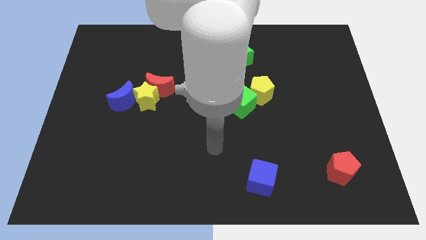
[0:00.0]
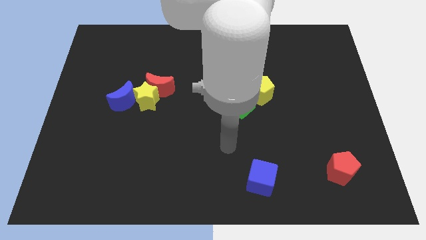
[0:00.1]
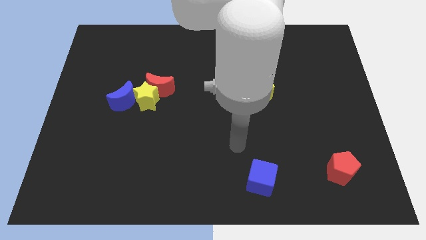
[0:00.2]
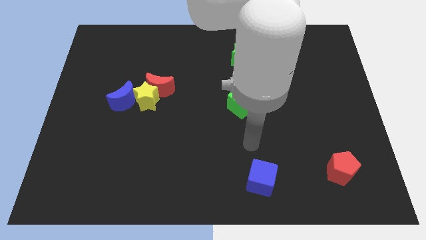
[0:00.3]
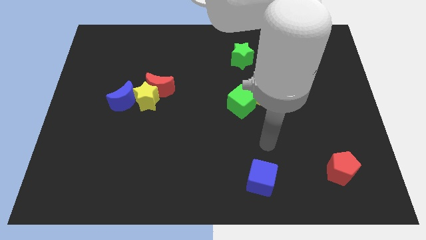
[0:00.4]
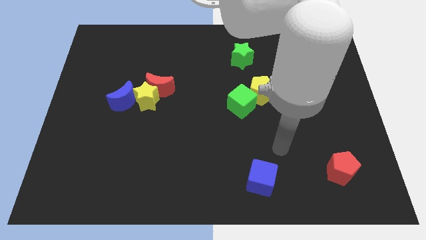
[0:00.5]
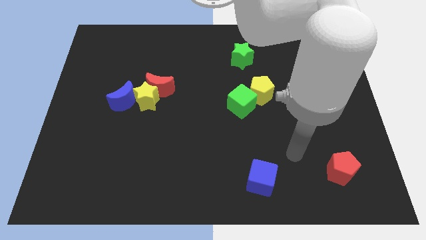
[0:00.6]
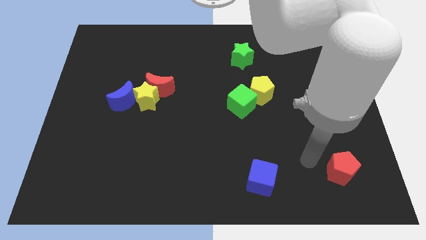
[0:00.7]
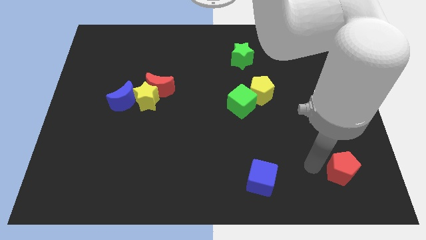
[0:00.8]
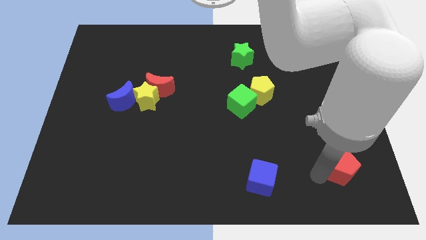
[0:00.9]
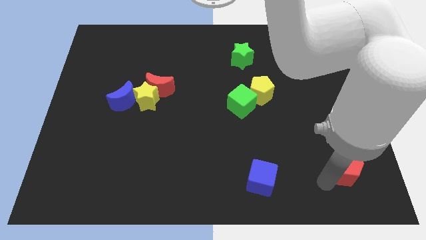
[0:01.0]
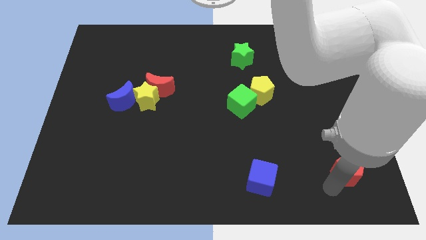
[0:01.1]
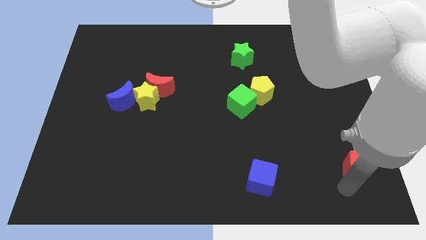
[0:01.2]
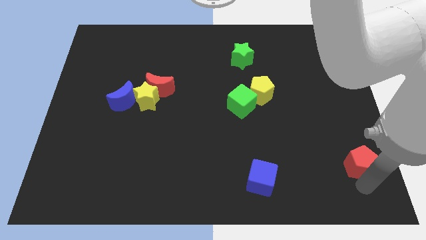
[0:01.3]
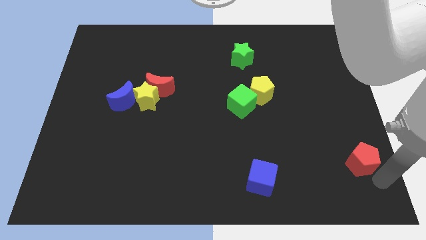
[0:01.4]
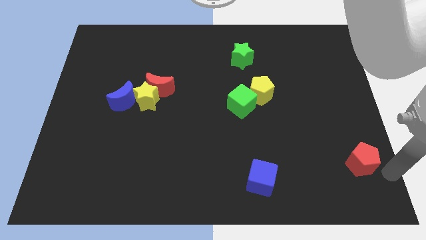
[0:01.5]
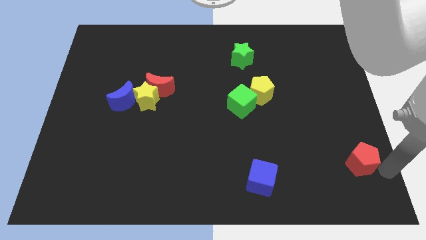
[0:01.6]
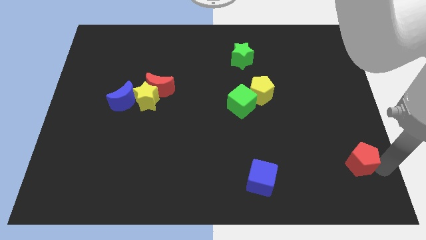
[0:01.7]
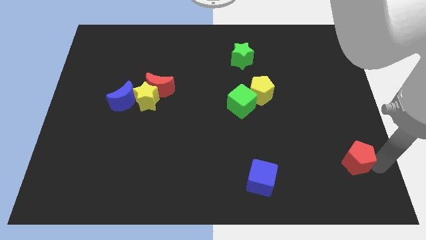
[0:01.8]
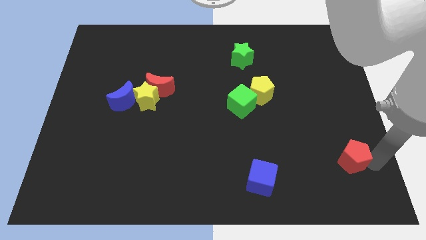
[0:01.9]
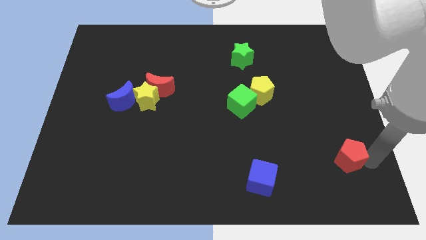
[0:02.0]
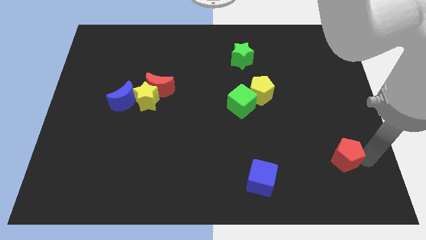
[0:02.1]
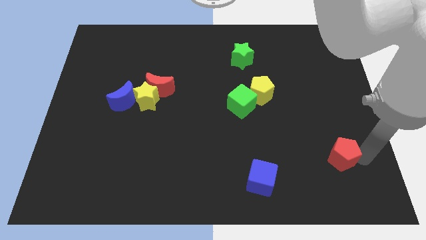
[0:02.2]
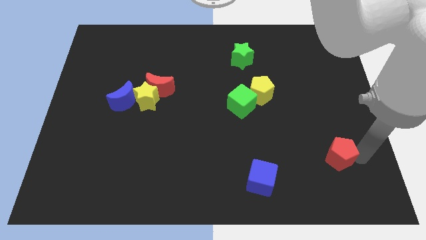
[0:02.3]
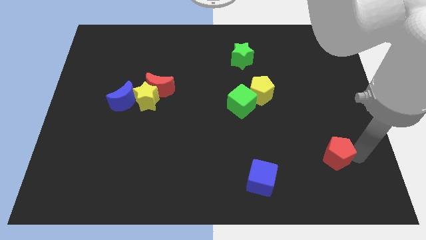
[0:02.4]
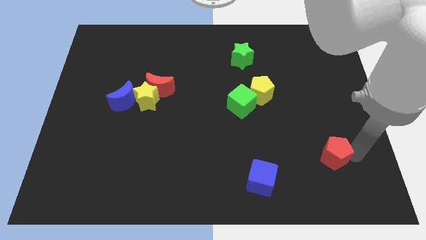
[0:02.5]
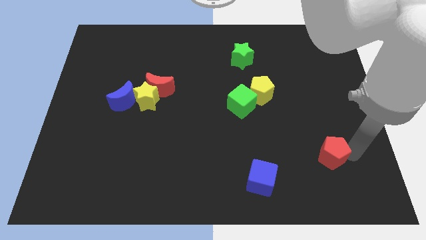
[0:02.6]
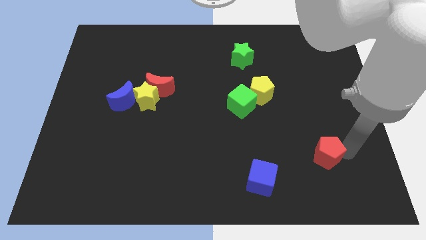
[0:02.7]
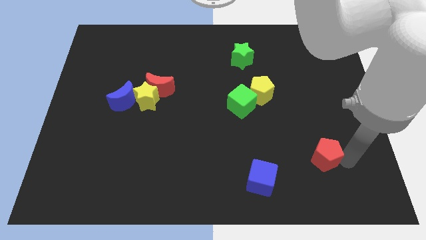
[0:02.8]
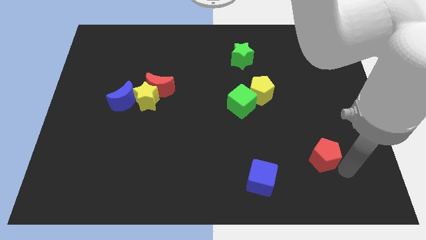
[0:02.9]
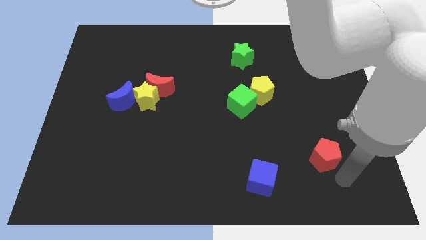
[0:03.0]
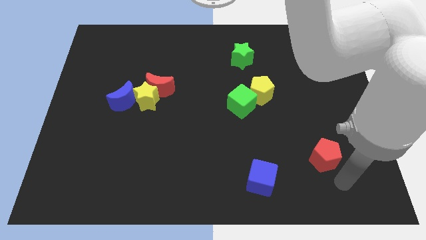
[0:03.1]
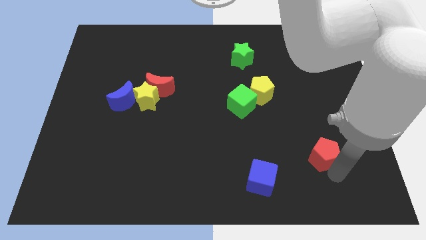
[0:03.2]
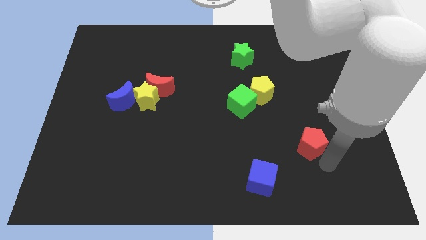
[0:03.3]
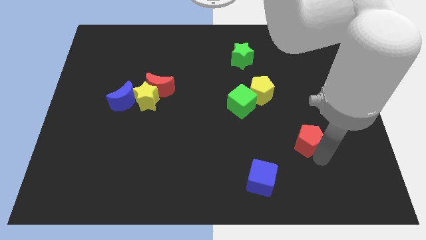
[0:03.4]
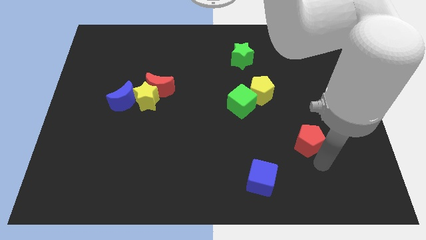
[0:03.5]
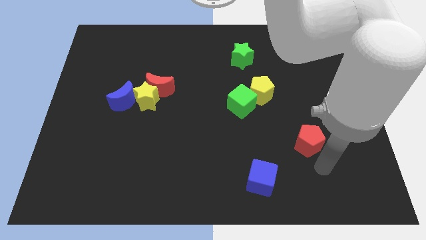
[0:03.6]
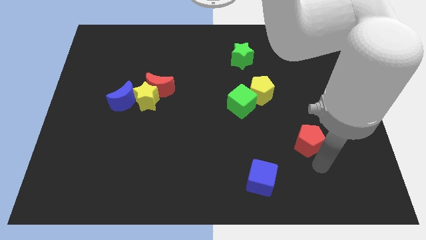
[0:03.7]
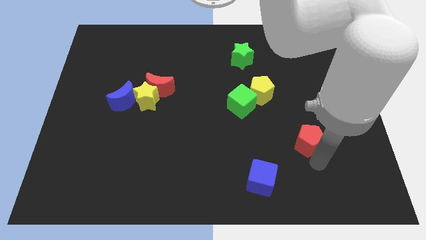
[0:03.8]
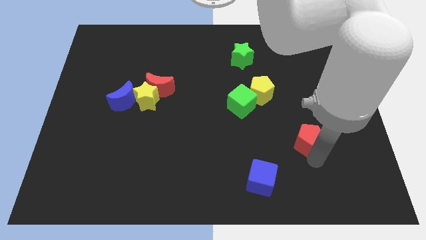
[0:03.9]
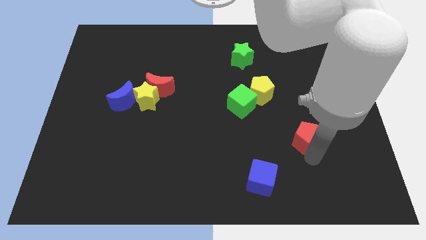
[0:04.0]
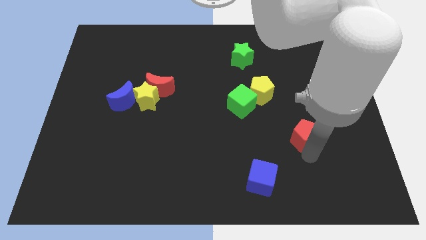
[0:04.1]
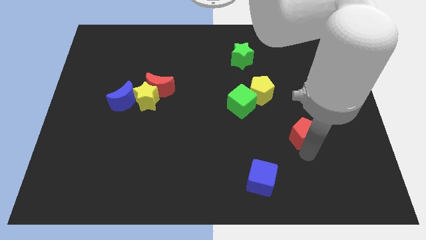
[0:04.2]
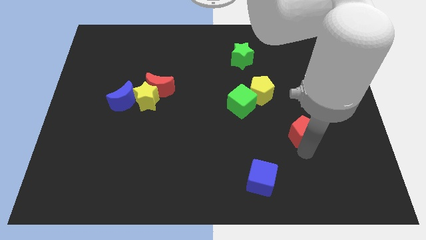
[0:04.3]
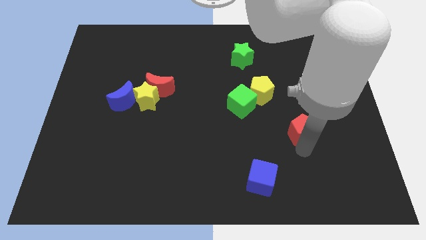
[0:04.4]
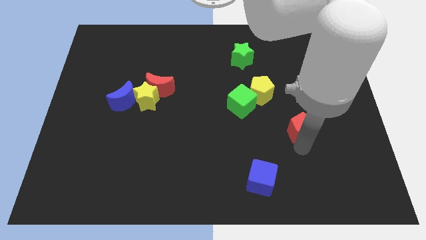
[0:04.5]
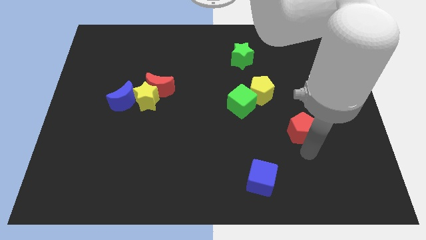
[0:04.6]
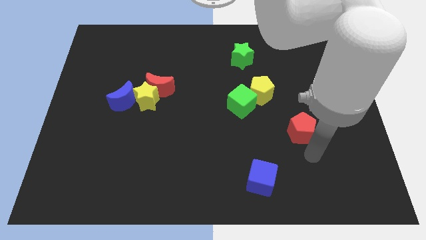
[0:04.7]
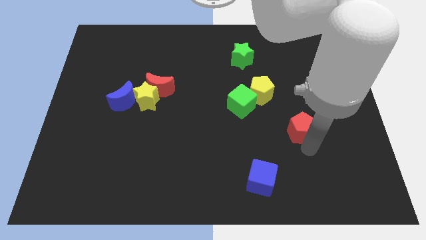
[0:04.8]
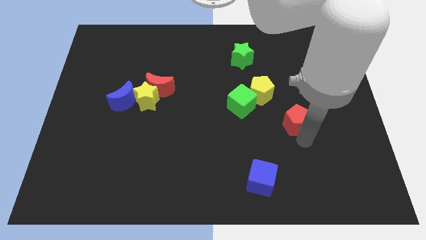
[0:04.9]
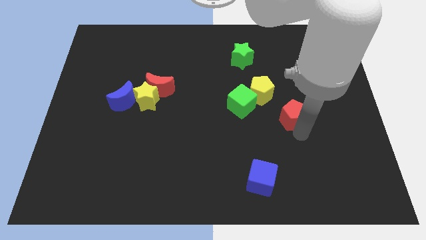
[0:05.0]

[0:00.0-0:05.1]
put the red pentagon just right of the green cube

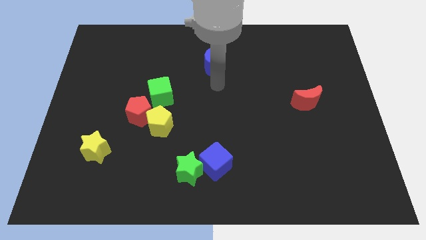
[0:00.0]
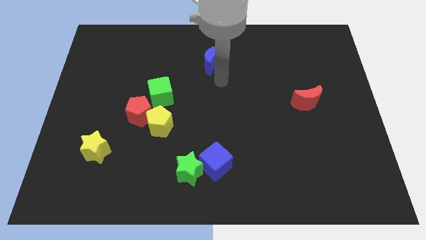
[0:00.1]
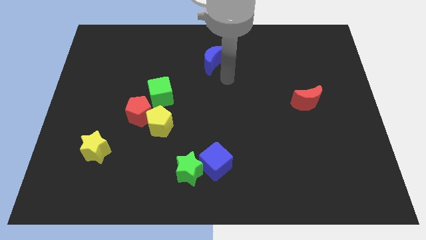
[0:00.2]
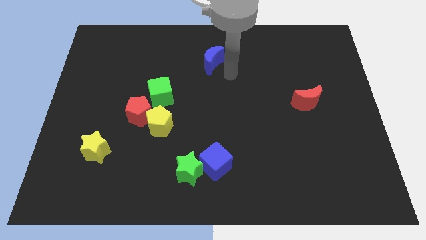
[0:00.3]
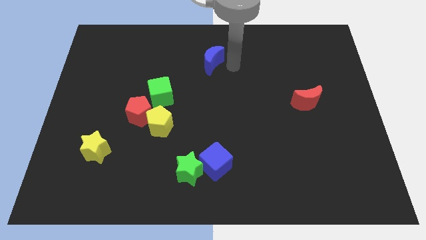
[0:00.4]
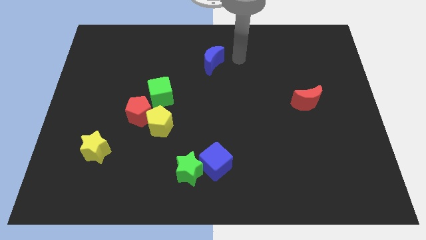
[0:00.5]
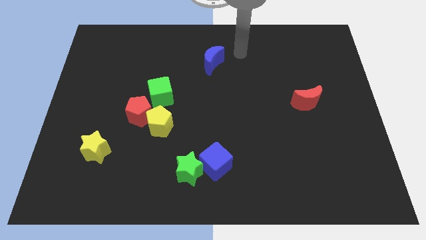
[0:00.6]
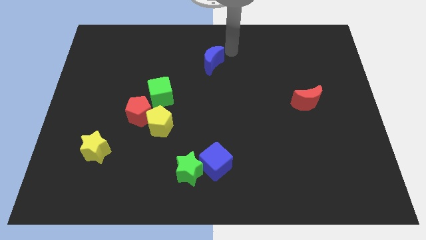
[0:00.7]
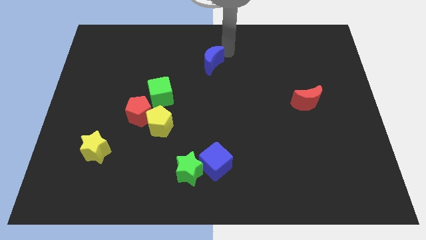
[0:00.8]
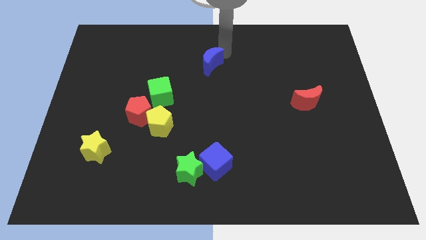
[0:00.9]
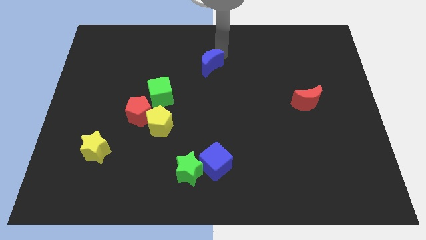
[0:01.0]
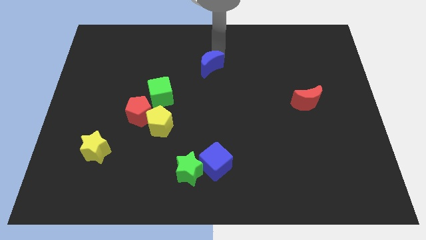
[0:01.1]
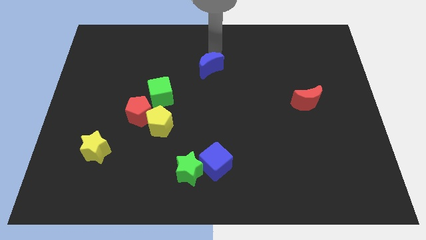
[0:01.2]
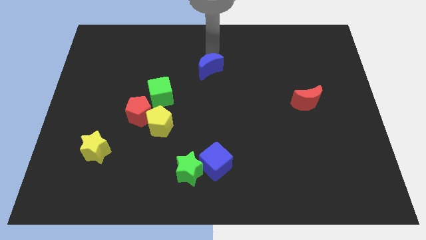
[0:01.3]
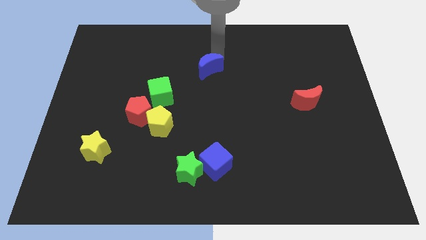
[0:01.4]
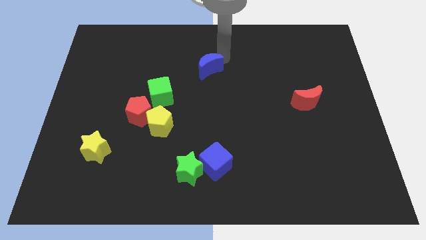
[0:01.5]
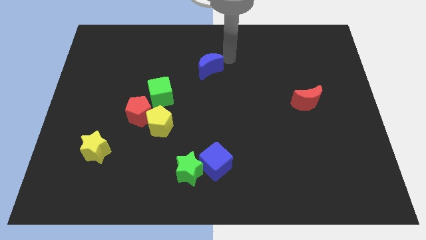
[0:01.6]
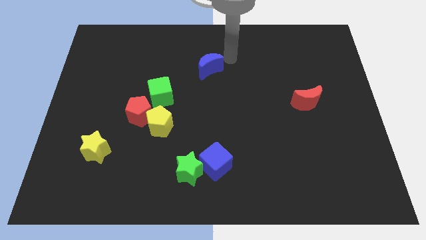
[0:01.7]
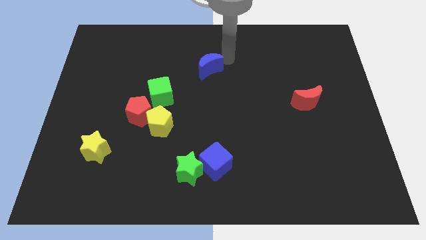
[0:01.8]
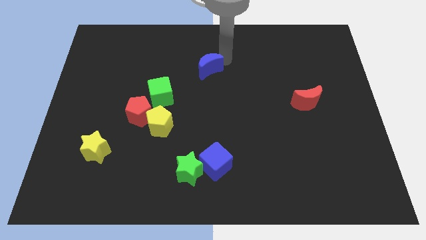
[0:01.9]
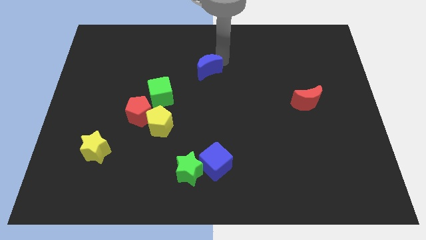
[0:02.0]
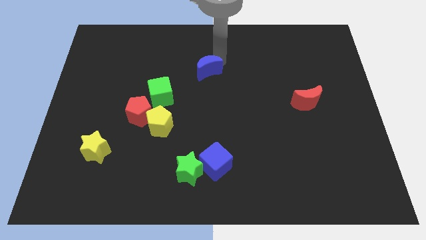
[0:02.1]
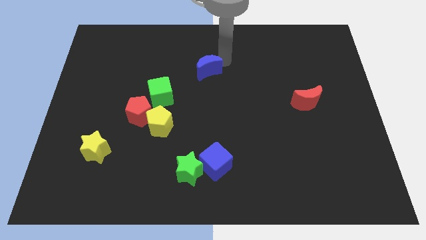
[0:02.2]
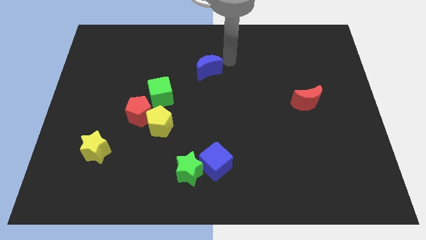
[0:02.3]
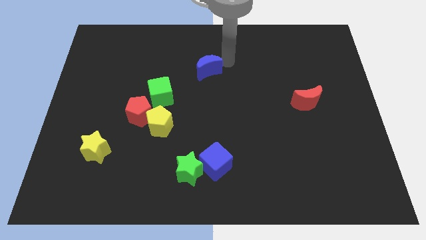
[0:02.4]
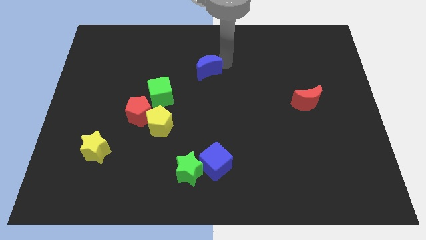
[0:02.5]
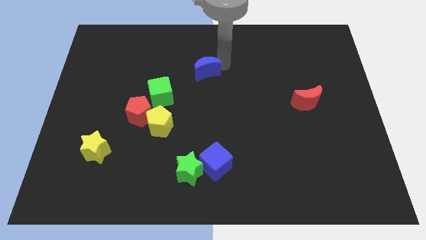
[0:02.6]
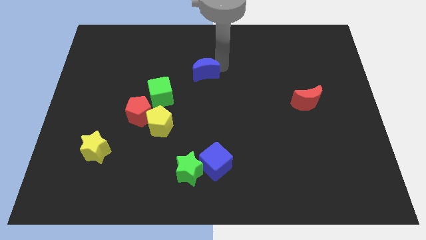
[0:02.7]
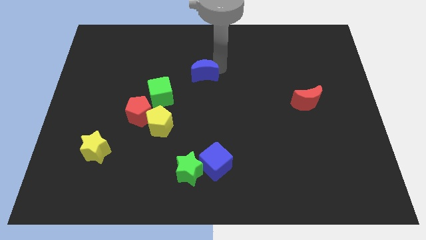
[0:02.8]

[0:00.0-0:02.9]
move the blue moon to the top right side of the green cube
